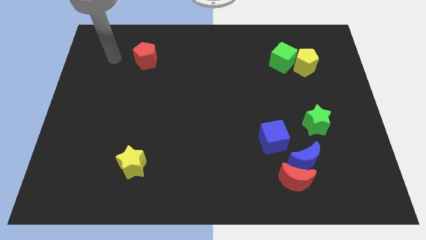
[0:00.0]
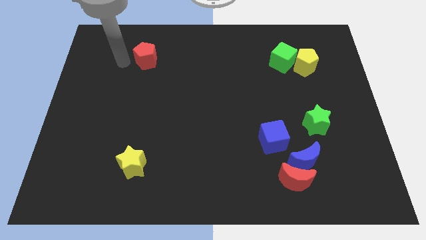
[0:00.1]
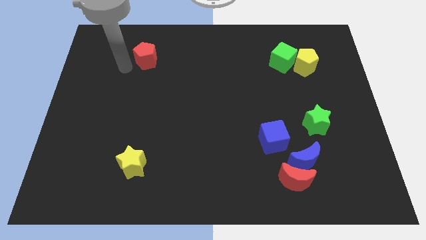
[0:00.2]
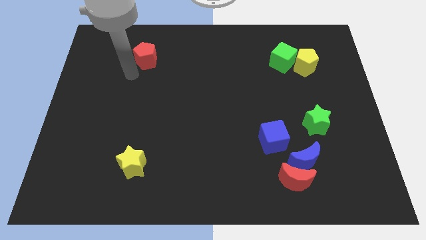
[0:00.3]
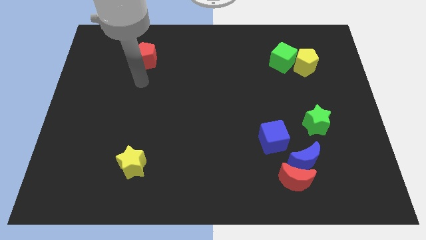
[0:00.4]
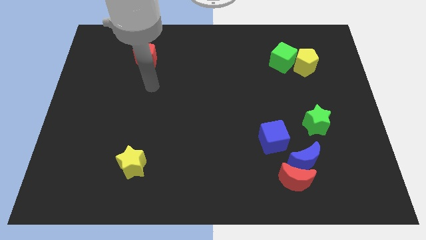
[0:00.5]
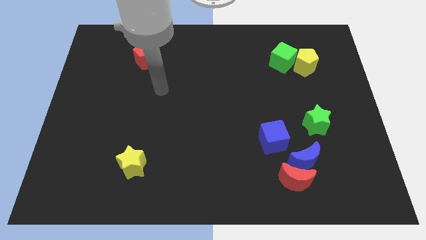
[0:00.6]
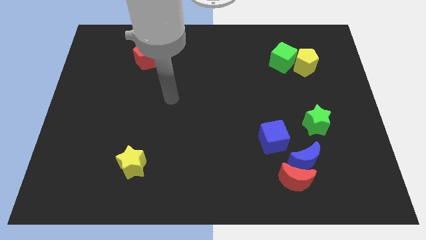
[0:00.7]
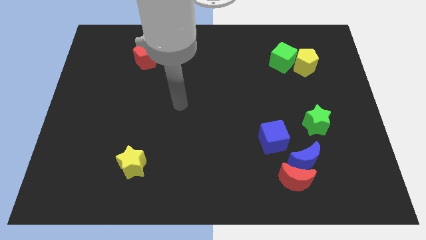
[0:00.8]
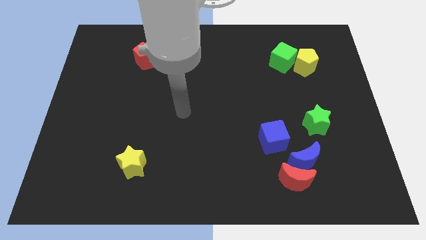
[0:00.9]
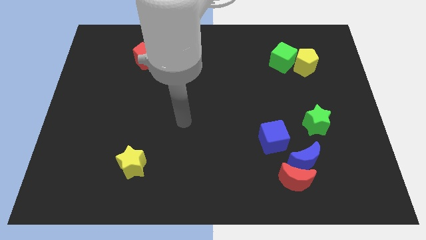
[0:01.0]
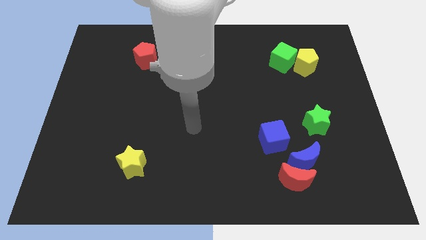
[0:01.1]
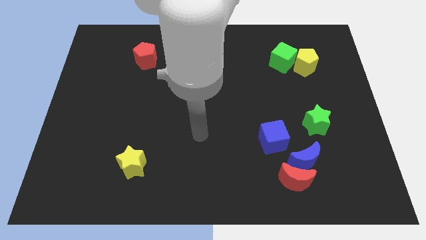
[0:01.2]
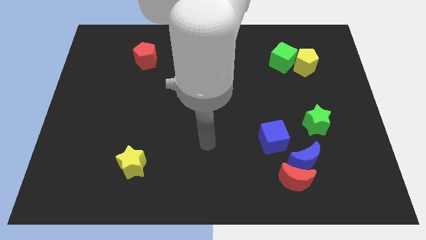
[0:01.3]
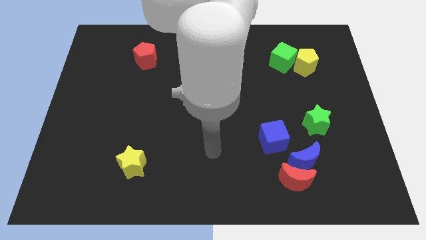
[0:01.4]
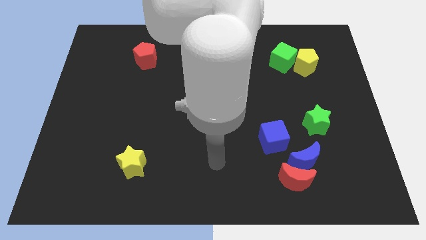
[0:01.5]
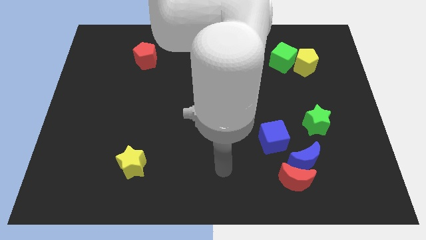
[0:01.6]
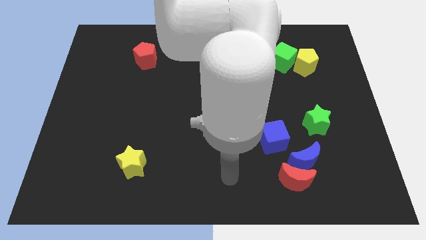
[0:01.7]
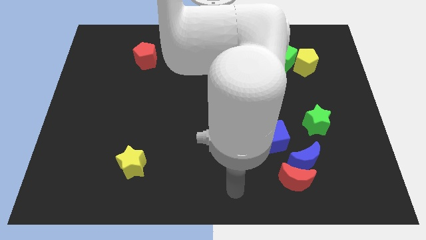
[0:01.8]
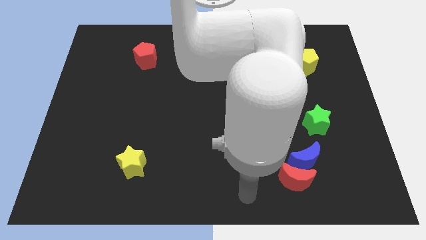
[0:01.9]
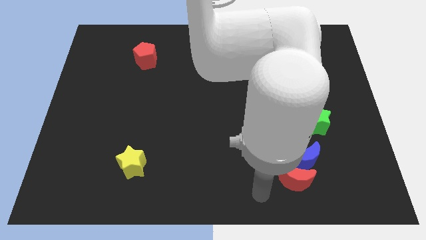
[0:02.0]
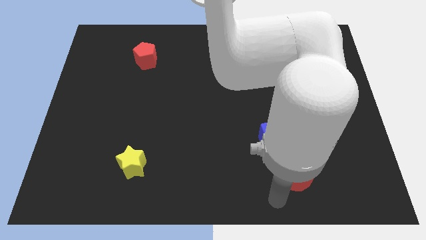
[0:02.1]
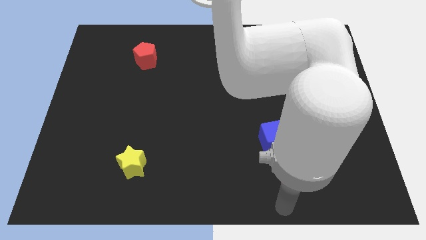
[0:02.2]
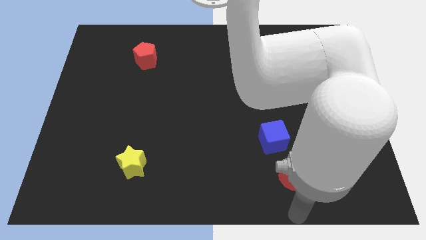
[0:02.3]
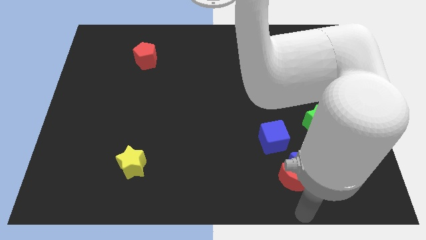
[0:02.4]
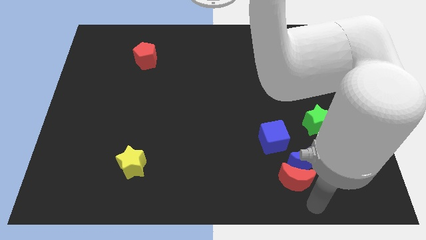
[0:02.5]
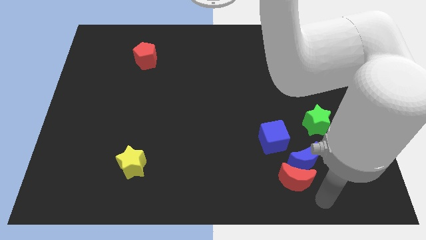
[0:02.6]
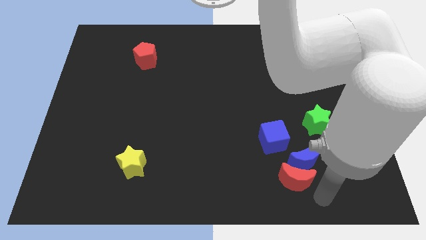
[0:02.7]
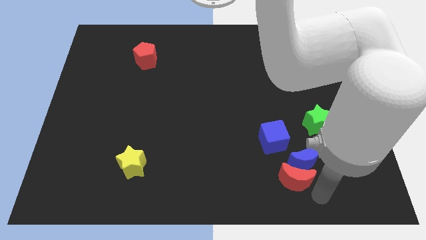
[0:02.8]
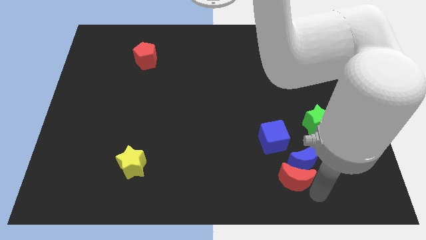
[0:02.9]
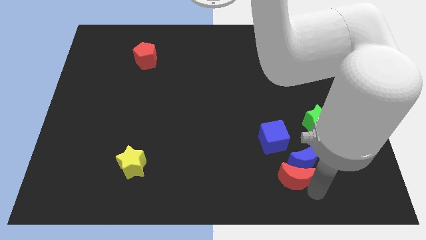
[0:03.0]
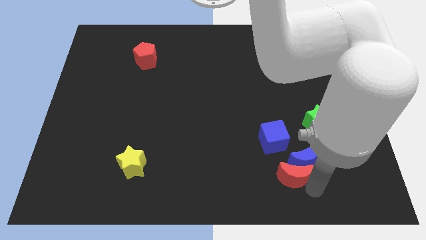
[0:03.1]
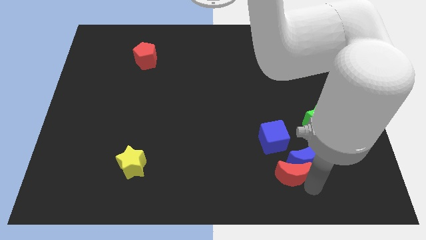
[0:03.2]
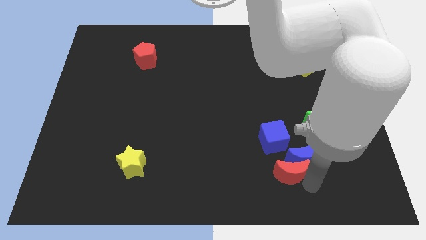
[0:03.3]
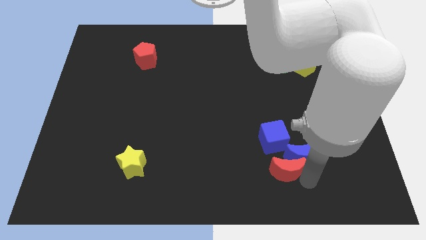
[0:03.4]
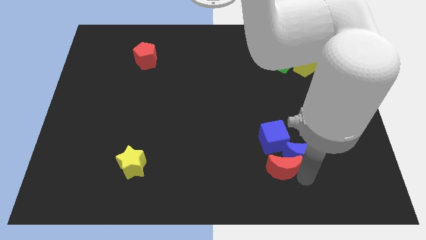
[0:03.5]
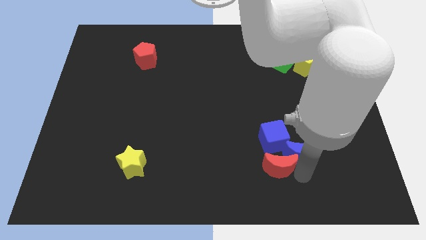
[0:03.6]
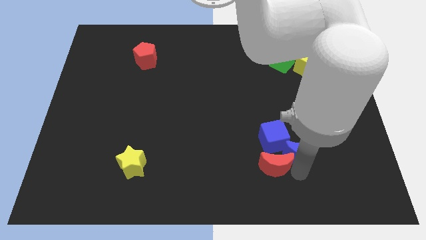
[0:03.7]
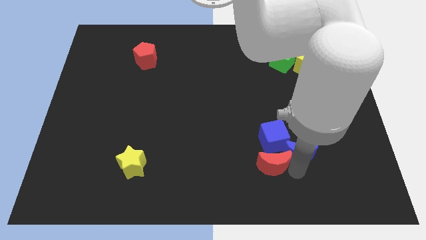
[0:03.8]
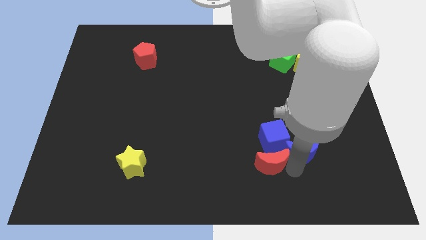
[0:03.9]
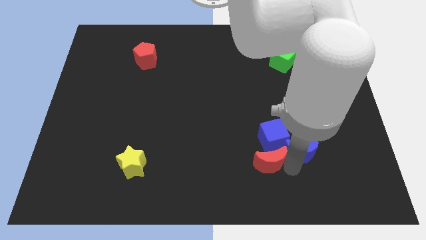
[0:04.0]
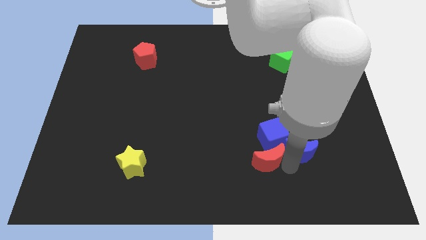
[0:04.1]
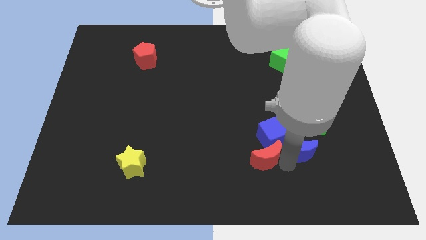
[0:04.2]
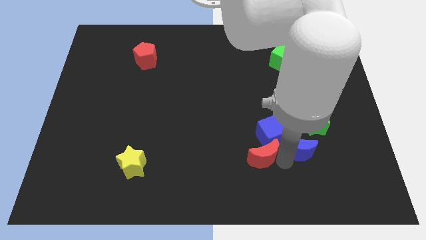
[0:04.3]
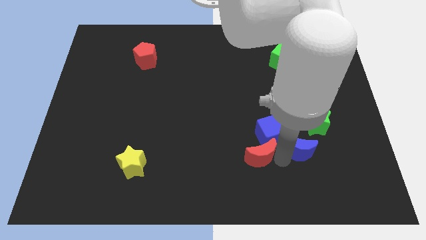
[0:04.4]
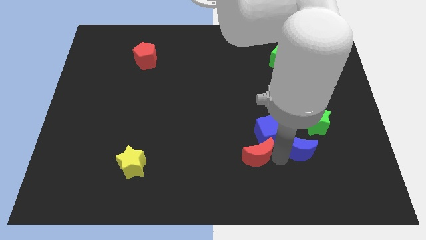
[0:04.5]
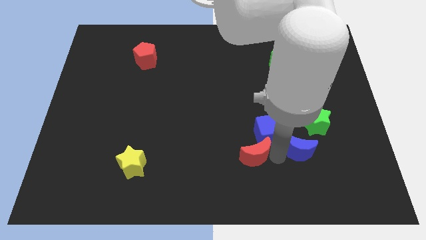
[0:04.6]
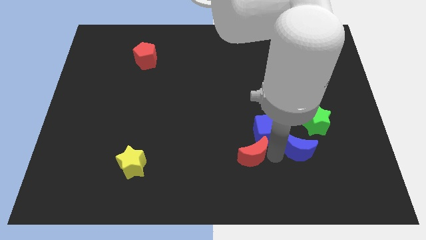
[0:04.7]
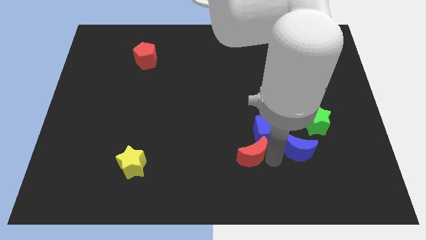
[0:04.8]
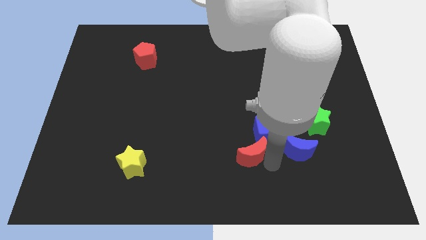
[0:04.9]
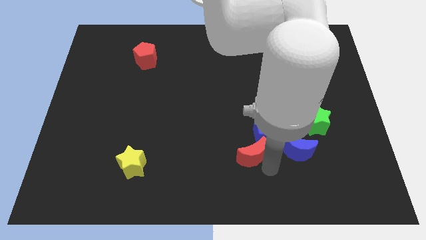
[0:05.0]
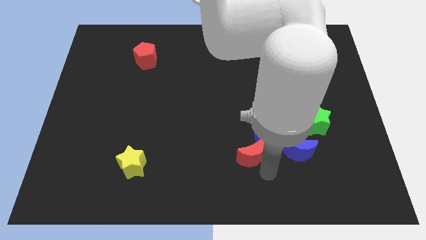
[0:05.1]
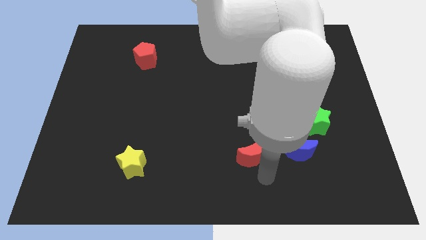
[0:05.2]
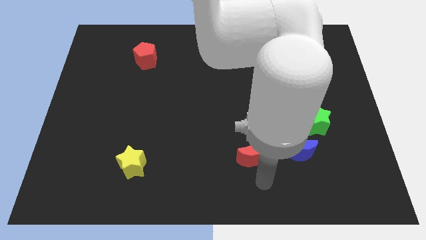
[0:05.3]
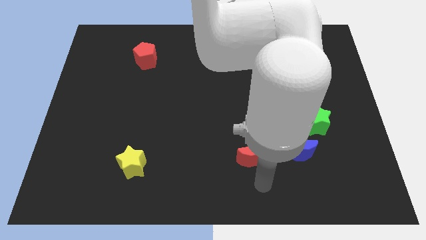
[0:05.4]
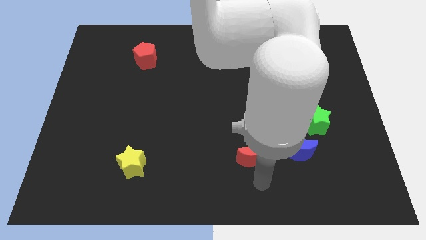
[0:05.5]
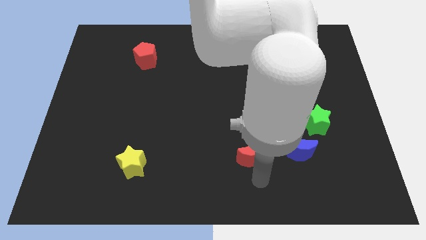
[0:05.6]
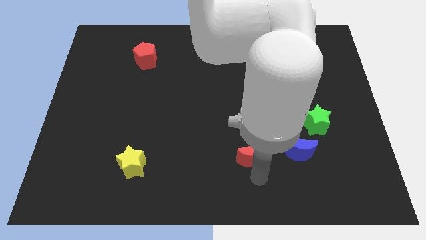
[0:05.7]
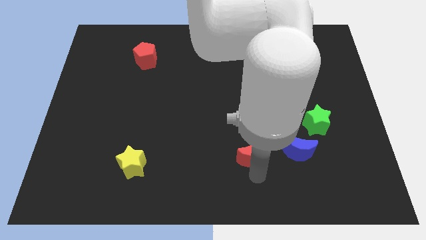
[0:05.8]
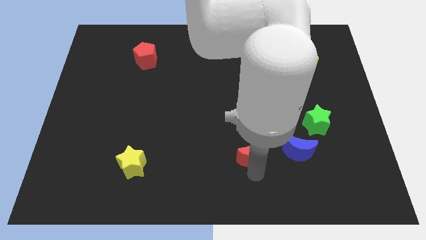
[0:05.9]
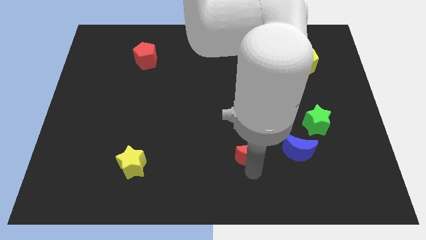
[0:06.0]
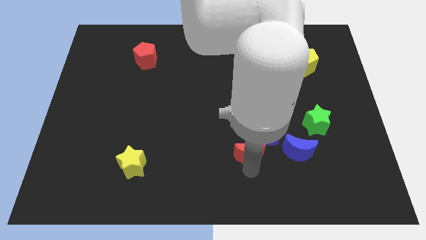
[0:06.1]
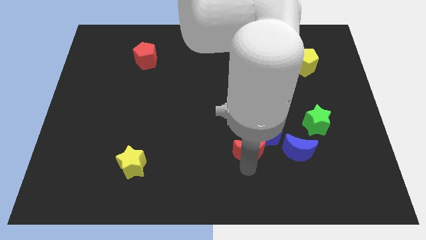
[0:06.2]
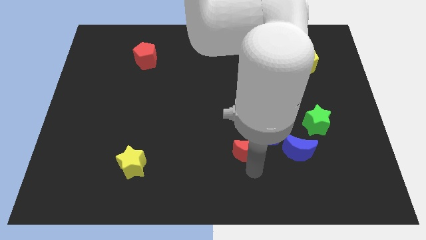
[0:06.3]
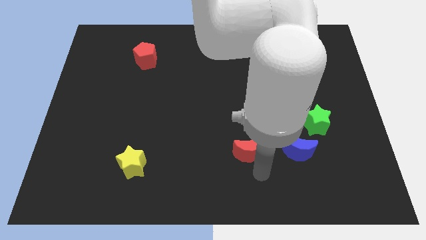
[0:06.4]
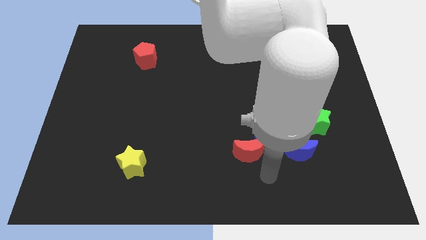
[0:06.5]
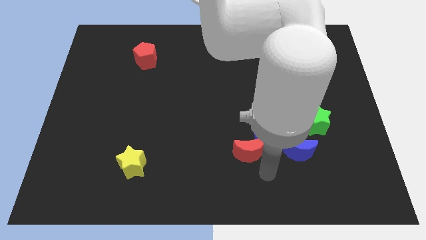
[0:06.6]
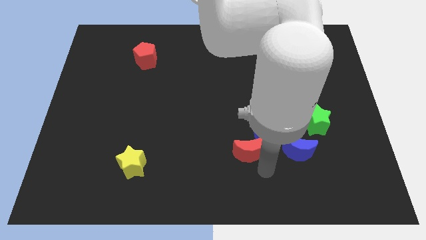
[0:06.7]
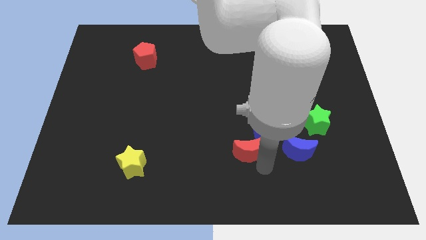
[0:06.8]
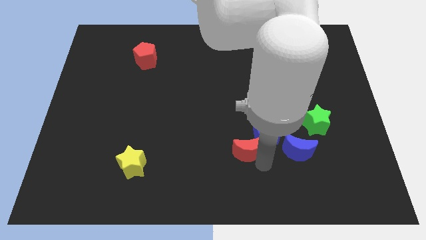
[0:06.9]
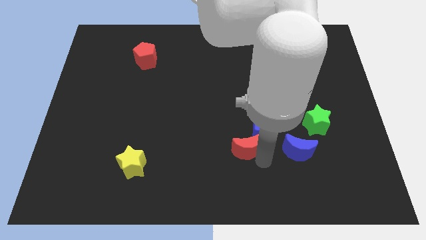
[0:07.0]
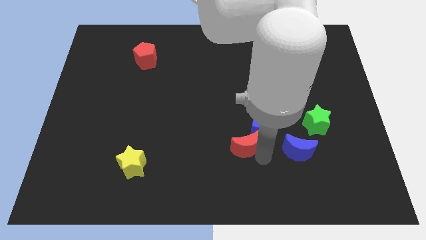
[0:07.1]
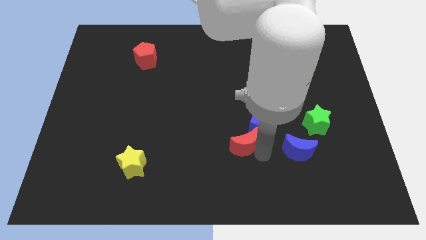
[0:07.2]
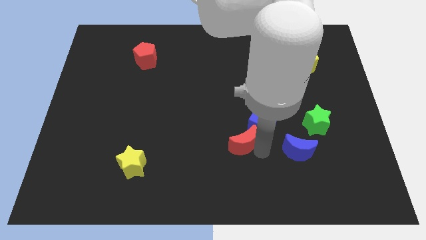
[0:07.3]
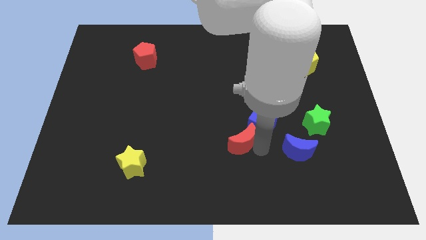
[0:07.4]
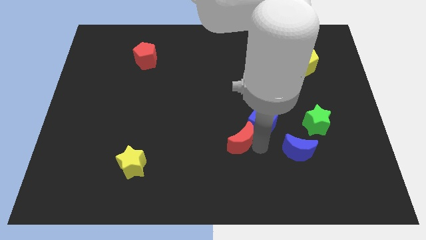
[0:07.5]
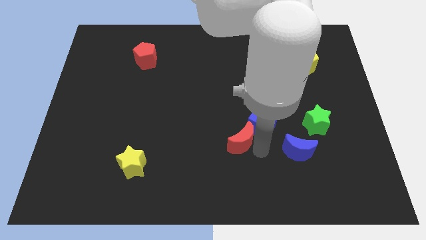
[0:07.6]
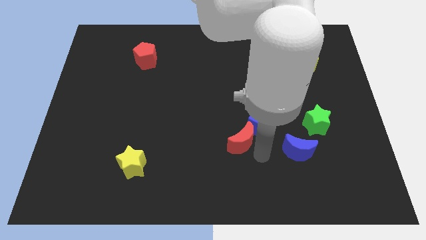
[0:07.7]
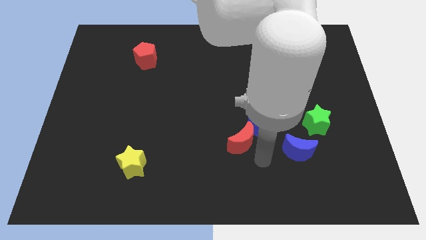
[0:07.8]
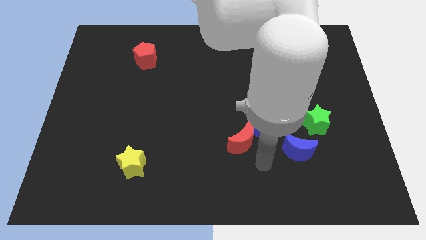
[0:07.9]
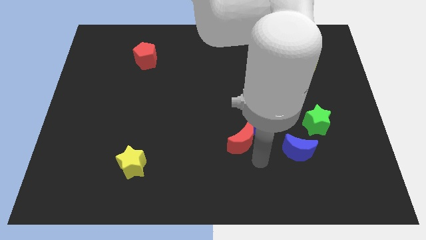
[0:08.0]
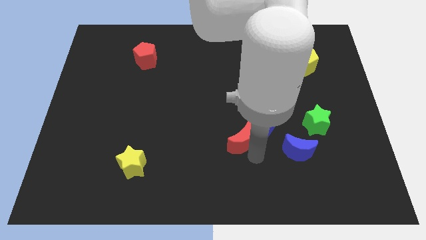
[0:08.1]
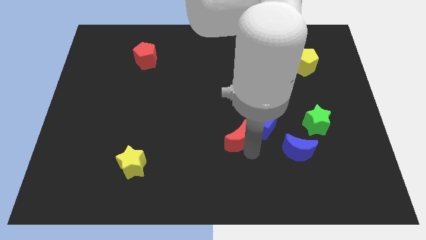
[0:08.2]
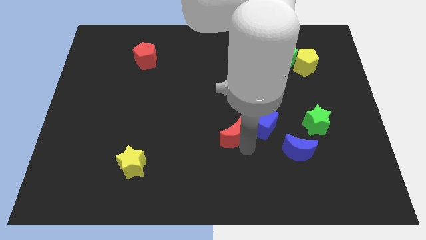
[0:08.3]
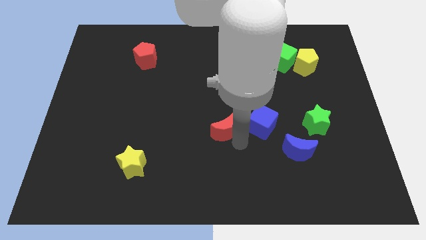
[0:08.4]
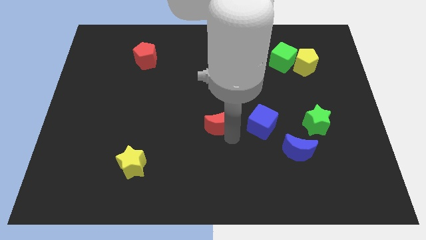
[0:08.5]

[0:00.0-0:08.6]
slide the red moon upwards and left diagonally
